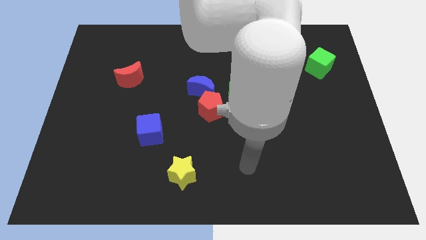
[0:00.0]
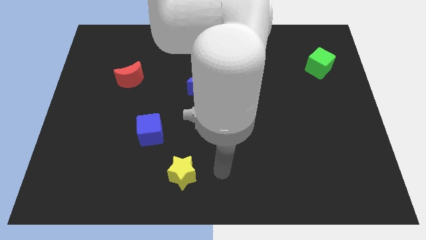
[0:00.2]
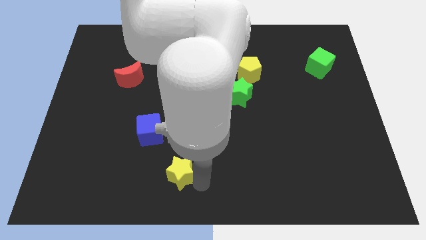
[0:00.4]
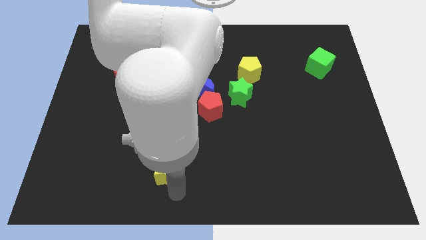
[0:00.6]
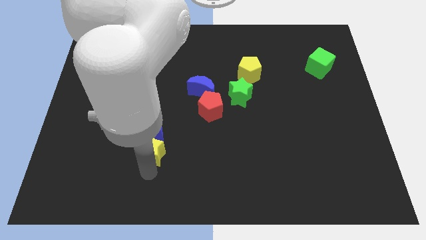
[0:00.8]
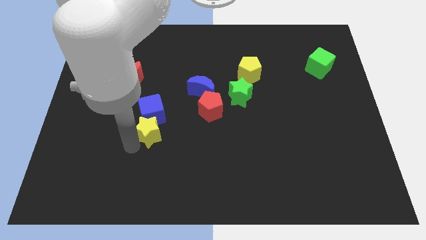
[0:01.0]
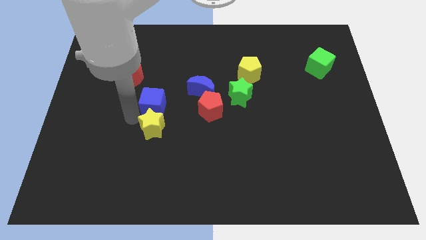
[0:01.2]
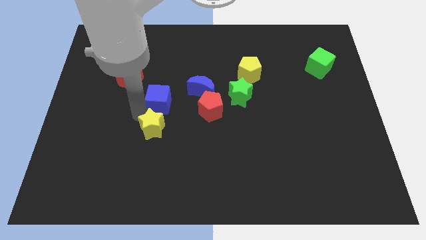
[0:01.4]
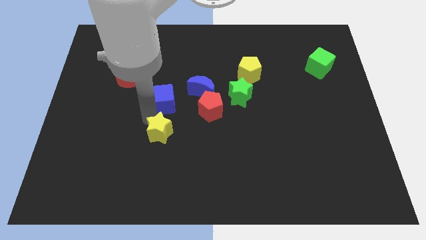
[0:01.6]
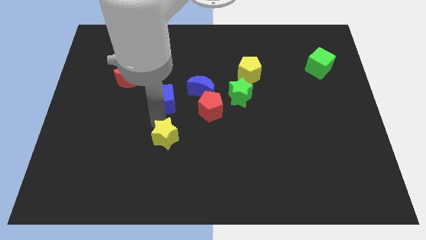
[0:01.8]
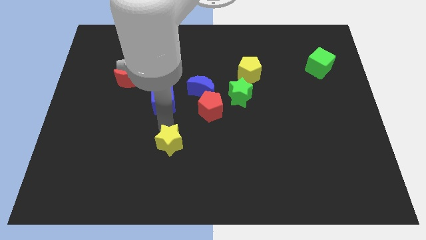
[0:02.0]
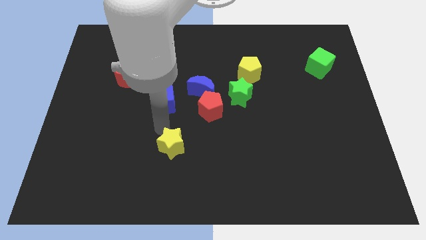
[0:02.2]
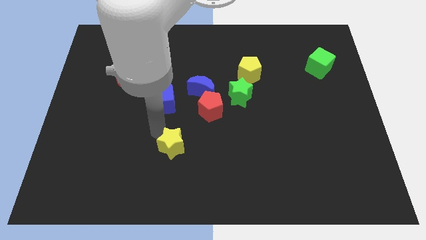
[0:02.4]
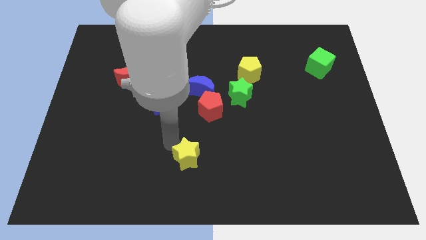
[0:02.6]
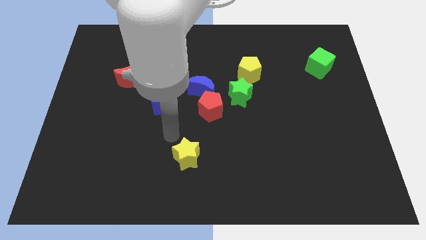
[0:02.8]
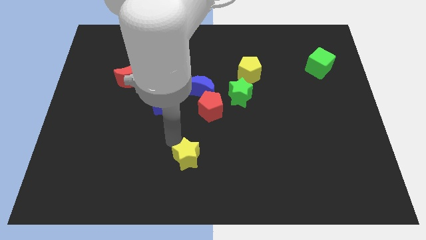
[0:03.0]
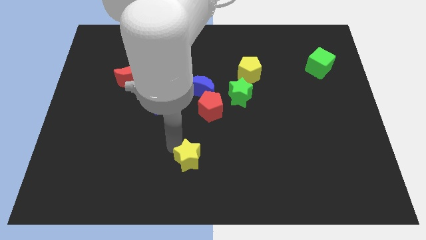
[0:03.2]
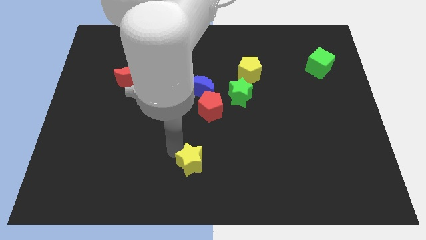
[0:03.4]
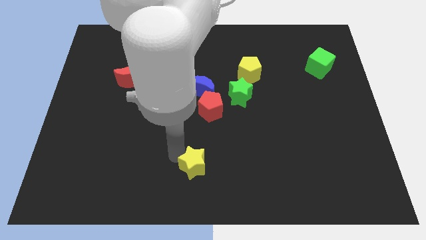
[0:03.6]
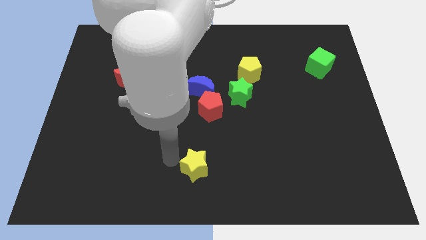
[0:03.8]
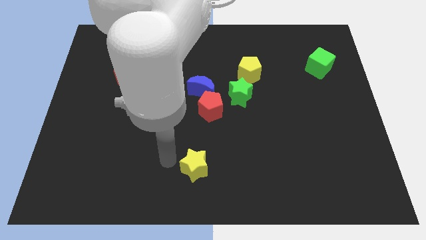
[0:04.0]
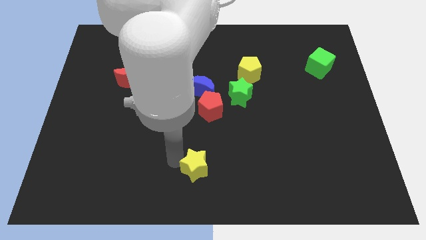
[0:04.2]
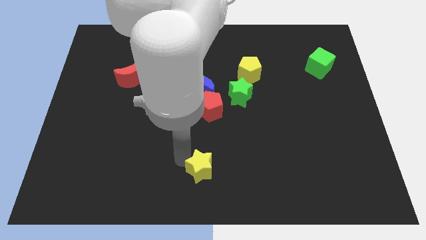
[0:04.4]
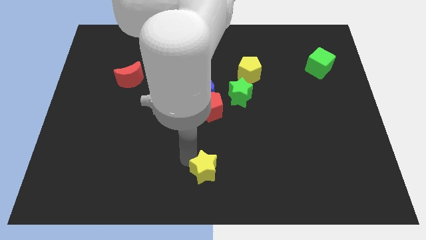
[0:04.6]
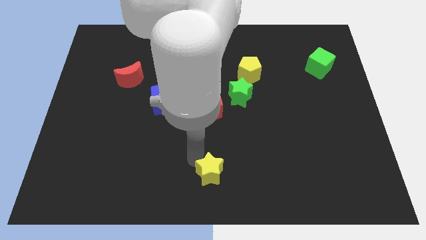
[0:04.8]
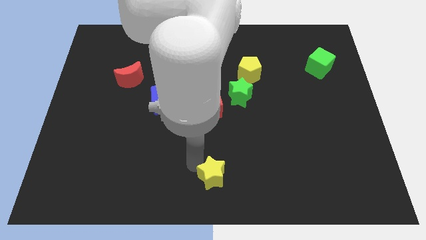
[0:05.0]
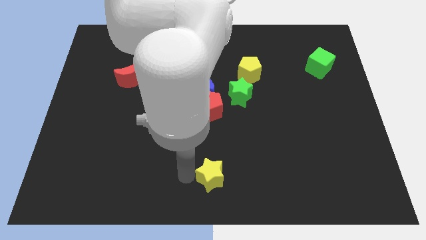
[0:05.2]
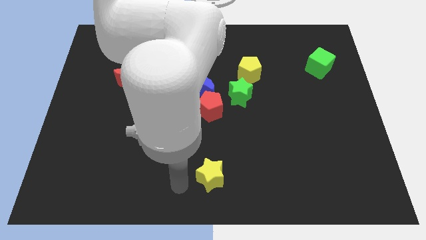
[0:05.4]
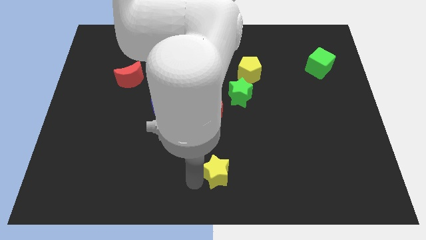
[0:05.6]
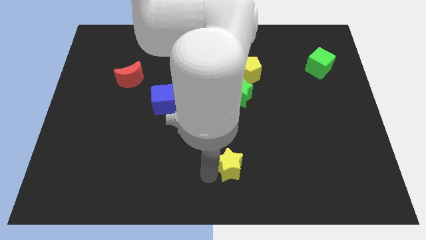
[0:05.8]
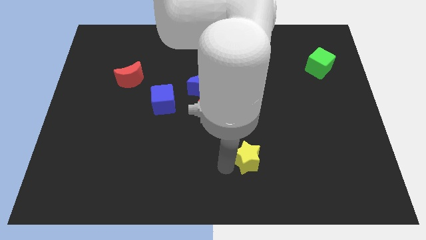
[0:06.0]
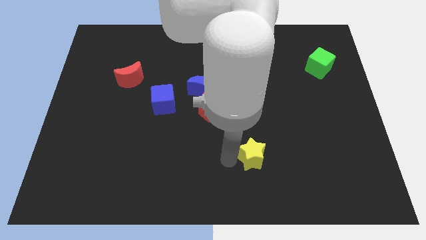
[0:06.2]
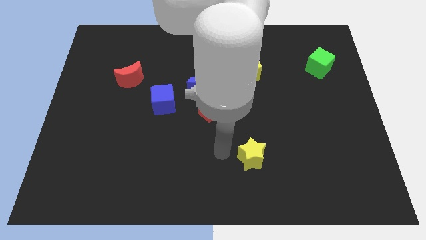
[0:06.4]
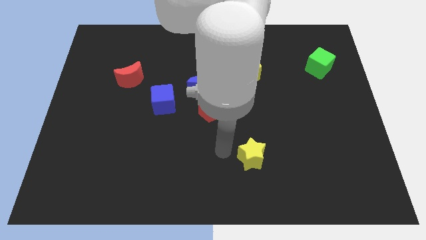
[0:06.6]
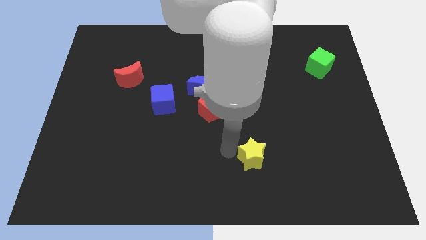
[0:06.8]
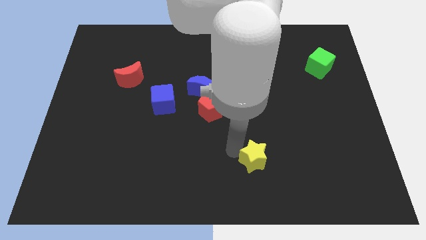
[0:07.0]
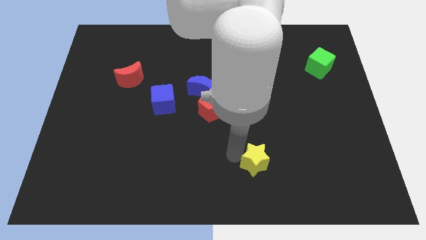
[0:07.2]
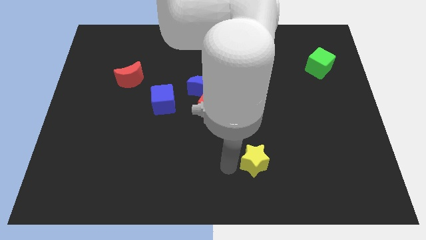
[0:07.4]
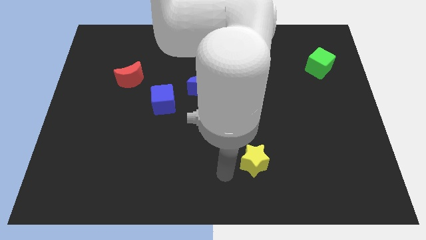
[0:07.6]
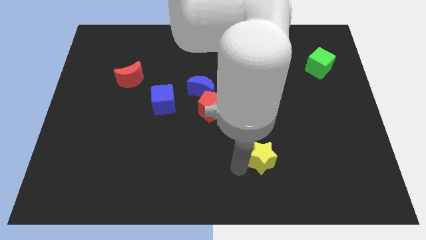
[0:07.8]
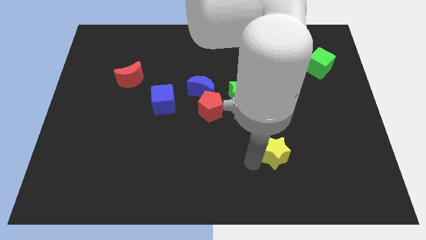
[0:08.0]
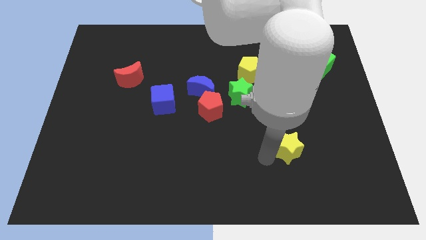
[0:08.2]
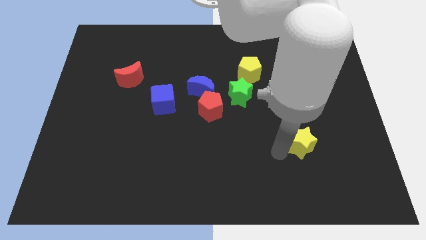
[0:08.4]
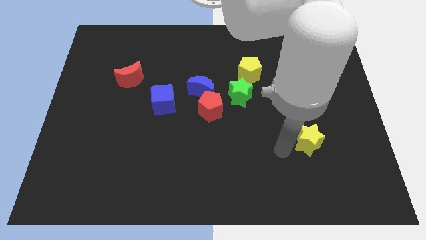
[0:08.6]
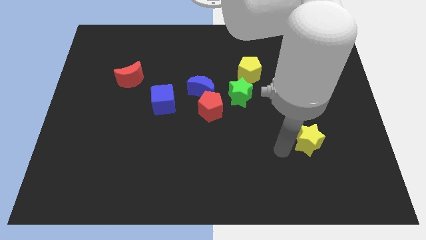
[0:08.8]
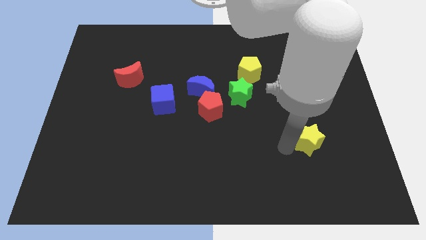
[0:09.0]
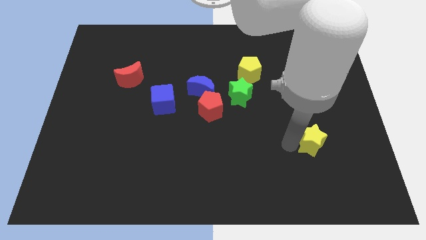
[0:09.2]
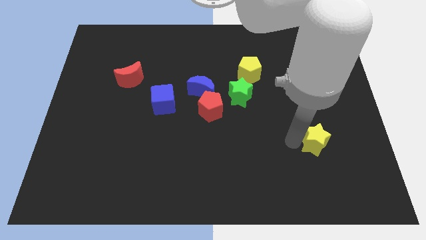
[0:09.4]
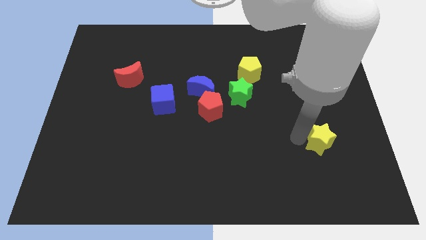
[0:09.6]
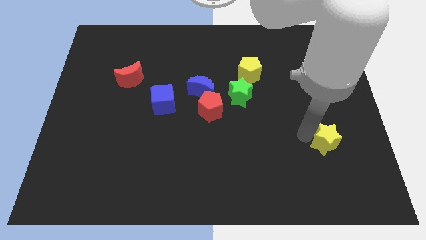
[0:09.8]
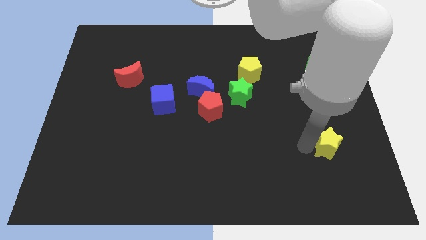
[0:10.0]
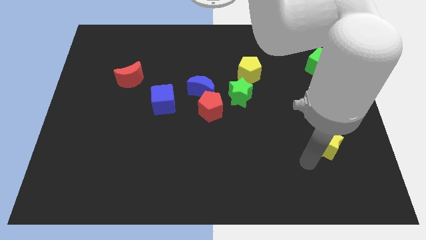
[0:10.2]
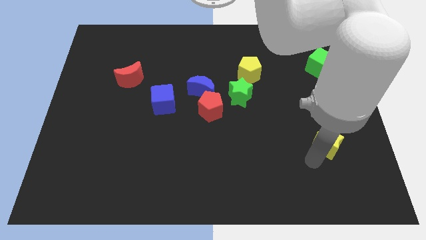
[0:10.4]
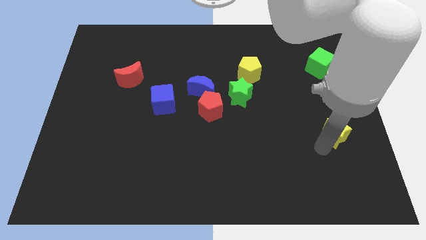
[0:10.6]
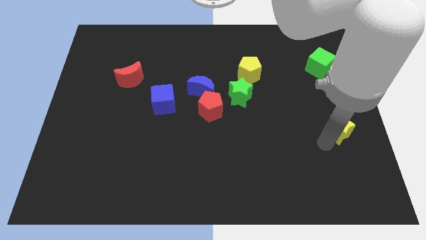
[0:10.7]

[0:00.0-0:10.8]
move the yellow star to the right side of the board

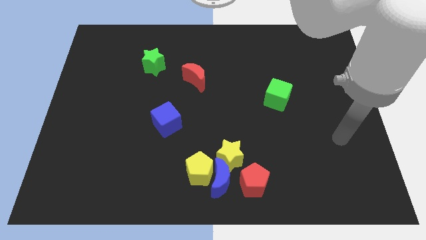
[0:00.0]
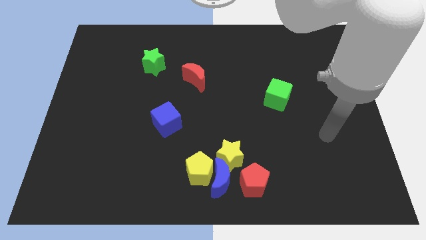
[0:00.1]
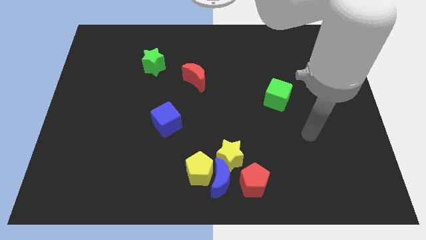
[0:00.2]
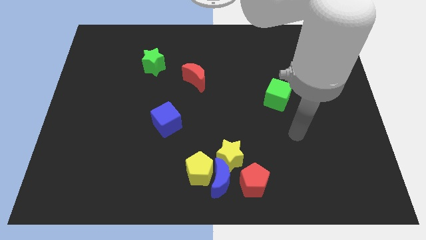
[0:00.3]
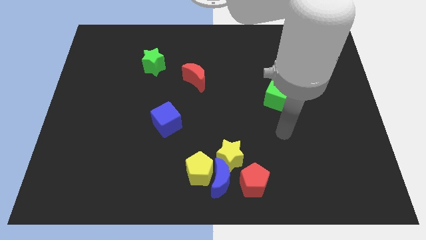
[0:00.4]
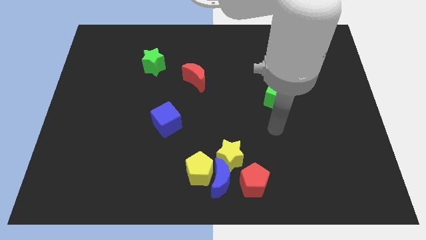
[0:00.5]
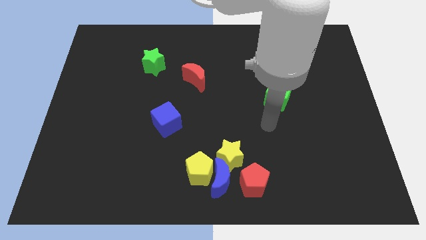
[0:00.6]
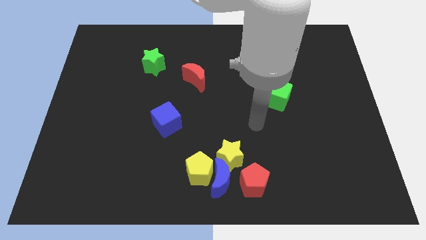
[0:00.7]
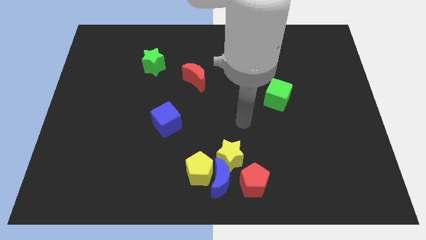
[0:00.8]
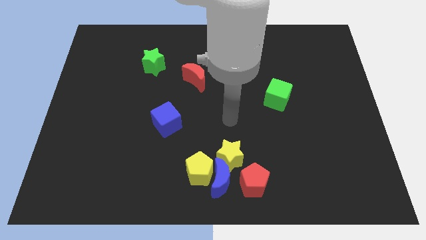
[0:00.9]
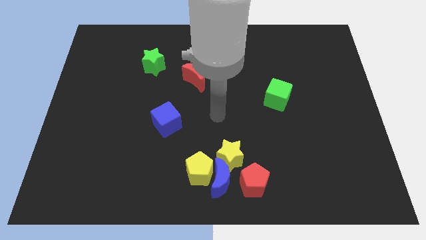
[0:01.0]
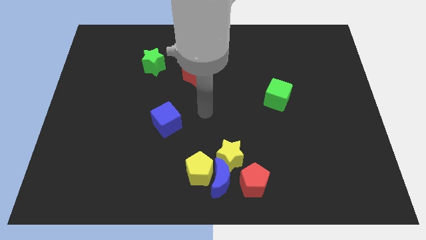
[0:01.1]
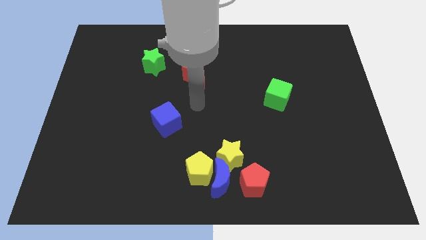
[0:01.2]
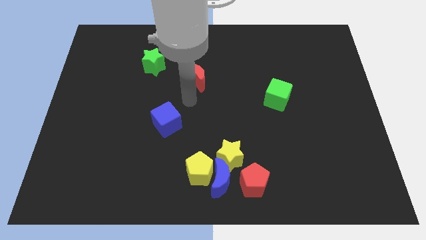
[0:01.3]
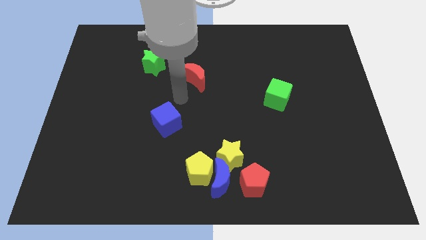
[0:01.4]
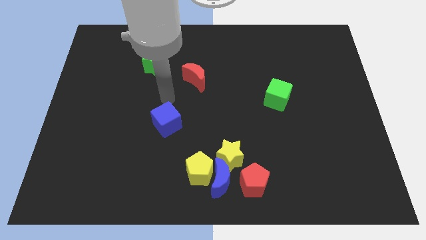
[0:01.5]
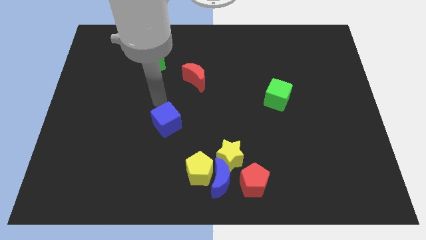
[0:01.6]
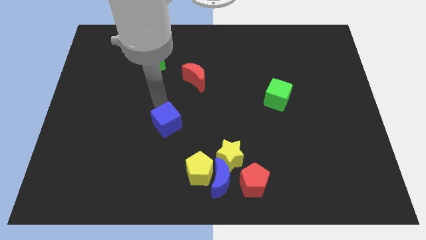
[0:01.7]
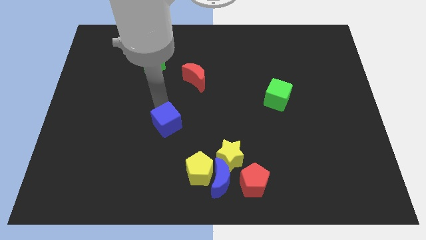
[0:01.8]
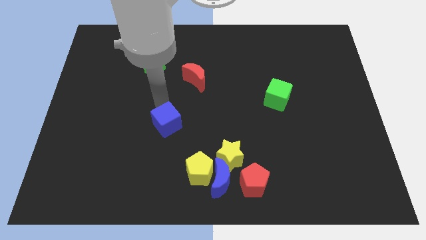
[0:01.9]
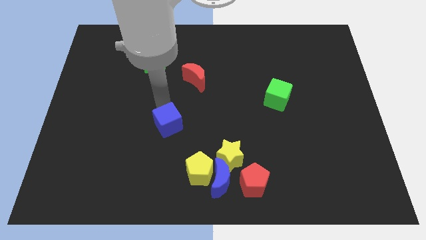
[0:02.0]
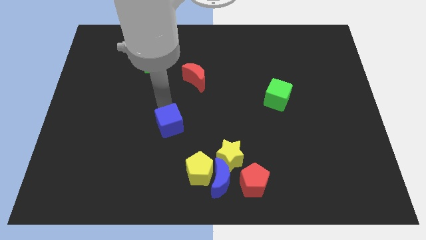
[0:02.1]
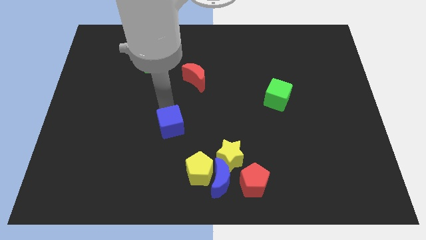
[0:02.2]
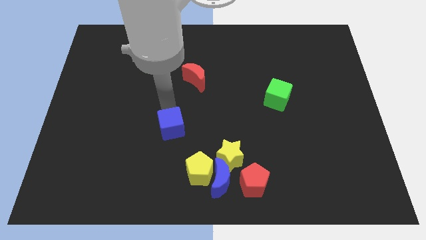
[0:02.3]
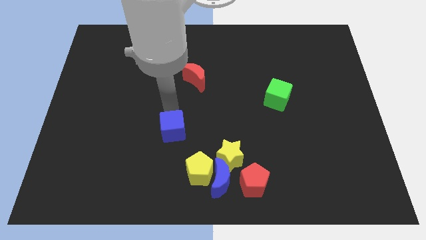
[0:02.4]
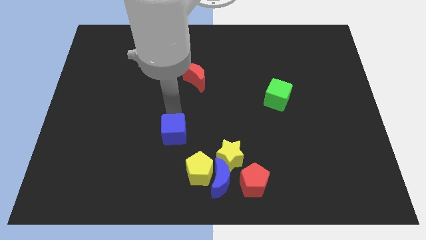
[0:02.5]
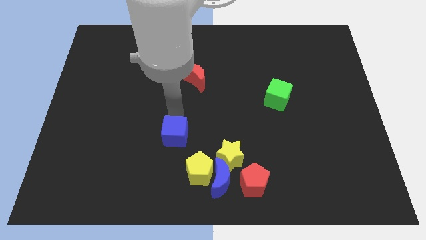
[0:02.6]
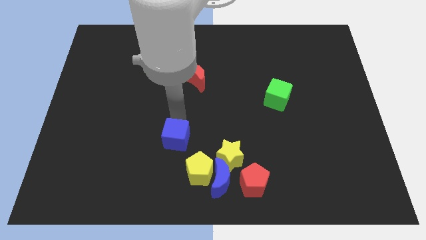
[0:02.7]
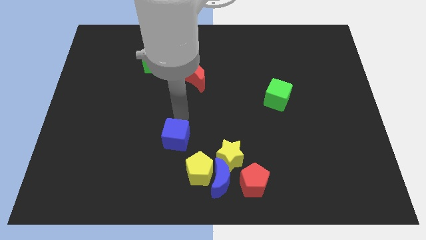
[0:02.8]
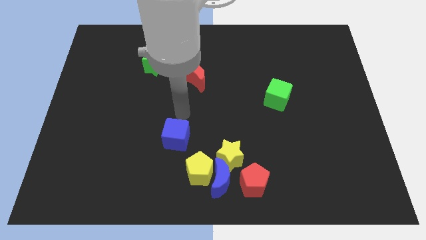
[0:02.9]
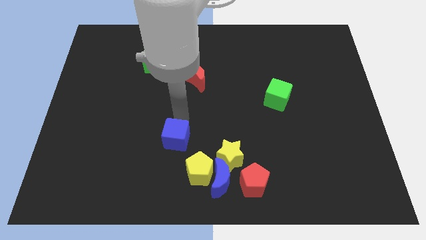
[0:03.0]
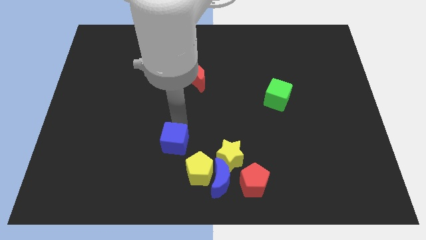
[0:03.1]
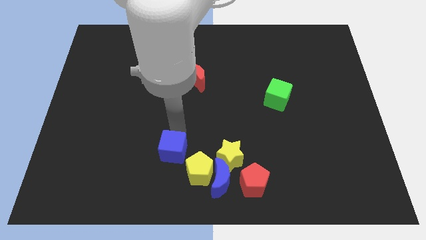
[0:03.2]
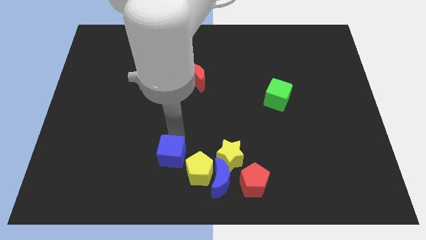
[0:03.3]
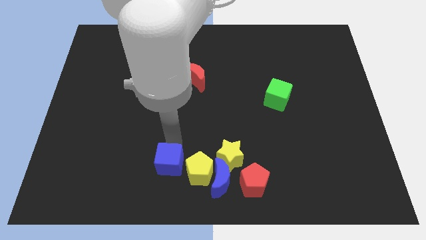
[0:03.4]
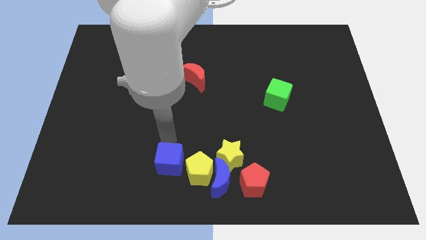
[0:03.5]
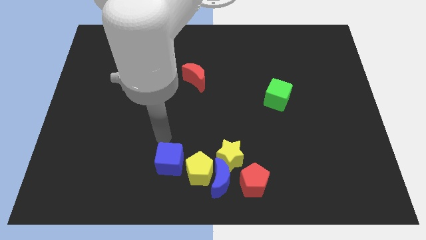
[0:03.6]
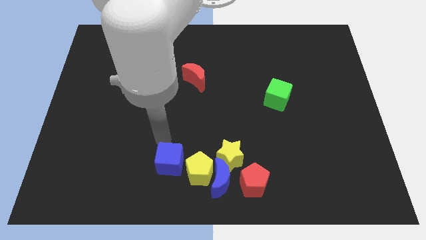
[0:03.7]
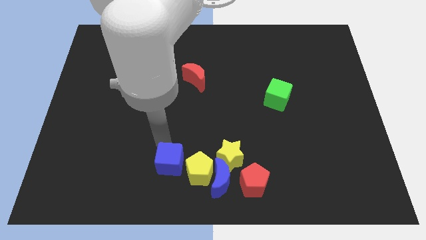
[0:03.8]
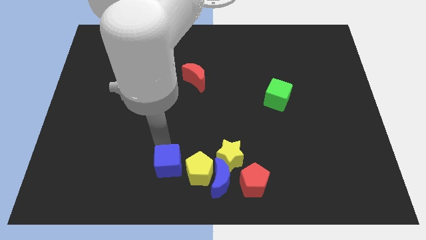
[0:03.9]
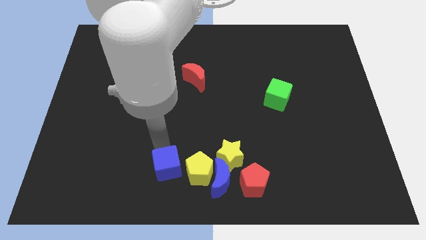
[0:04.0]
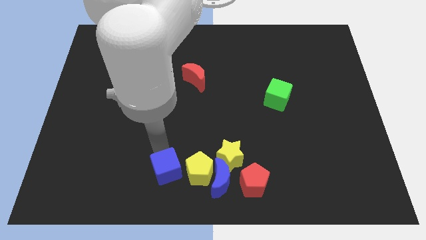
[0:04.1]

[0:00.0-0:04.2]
move the blue cube to the bottom
